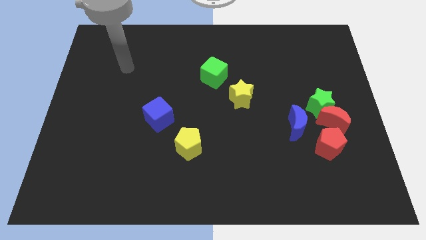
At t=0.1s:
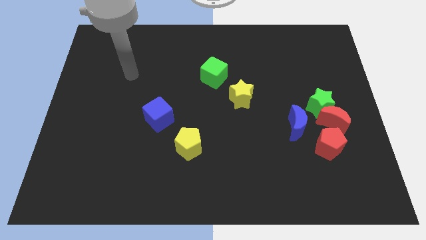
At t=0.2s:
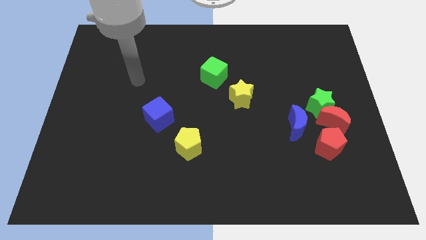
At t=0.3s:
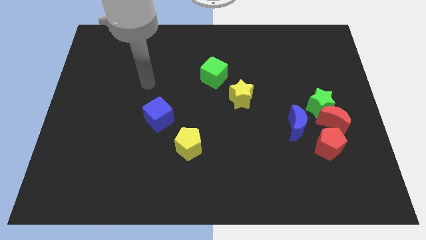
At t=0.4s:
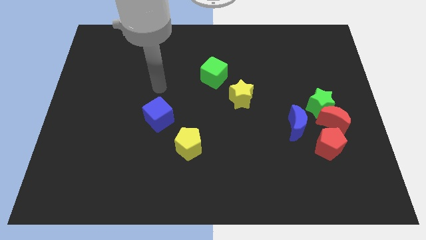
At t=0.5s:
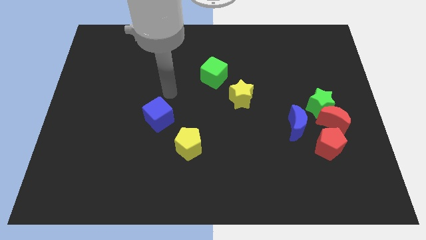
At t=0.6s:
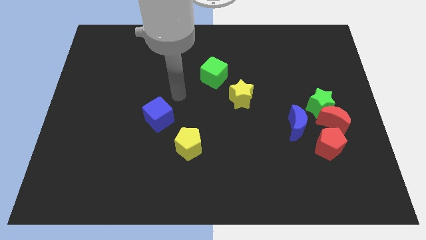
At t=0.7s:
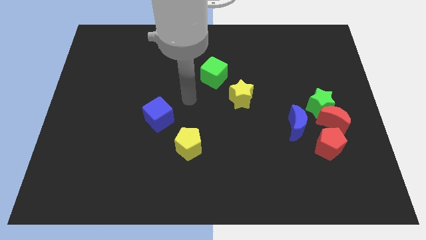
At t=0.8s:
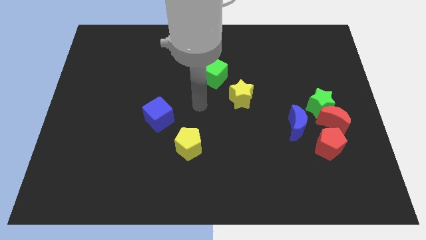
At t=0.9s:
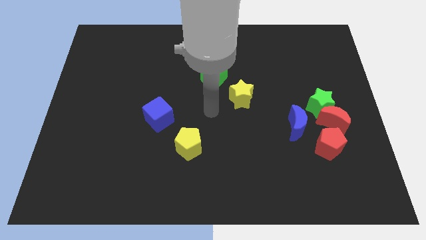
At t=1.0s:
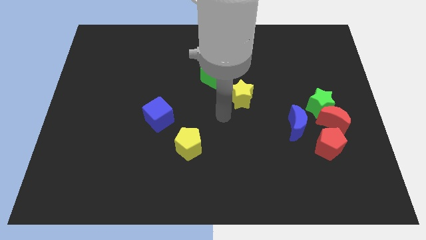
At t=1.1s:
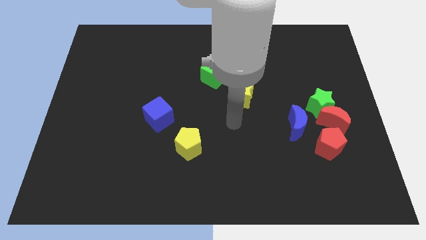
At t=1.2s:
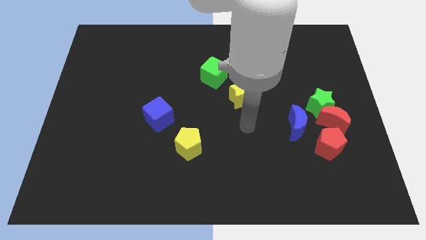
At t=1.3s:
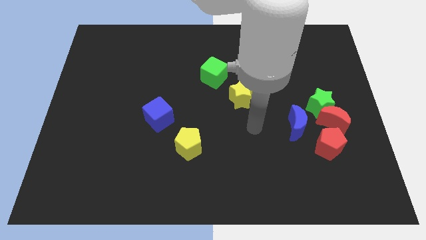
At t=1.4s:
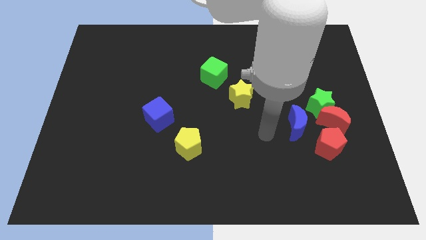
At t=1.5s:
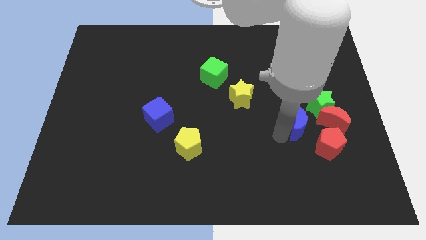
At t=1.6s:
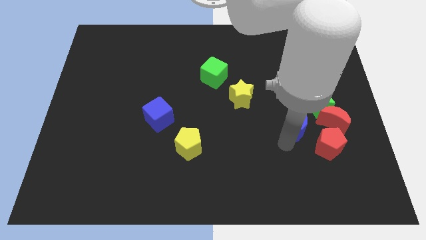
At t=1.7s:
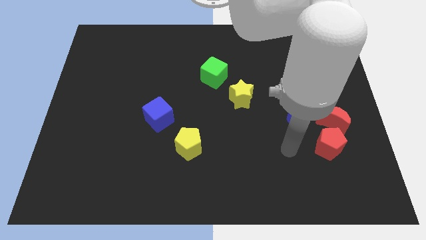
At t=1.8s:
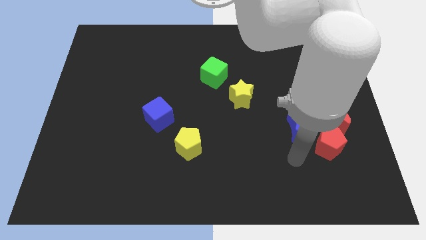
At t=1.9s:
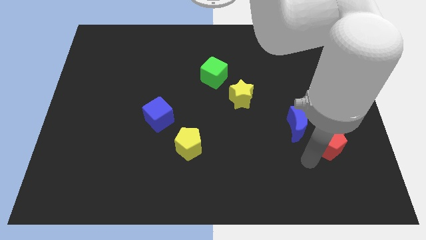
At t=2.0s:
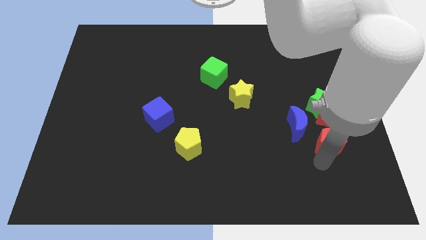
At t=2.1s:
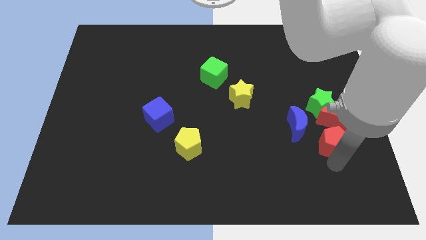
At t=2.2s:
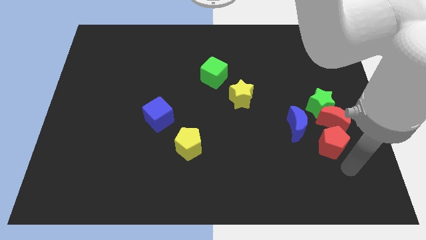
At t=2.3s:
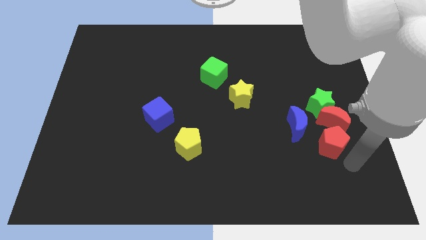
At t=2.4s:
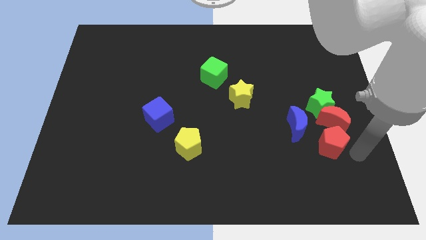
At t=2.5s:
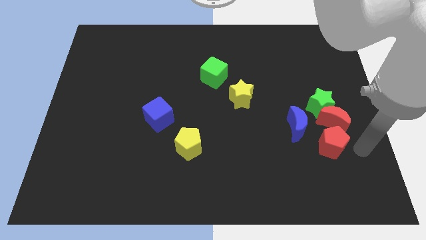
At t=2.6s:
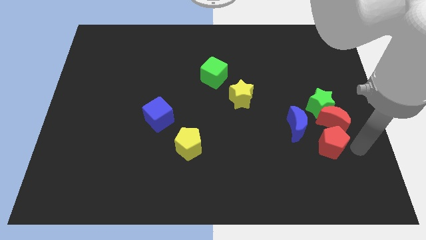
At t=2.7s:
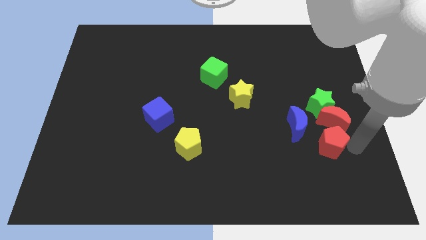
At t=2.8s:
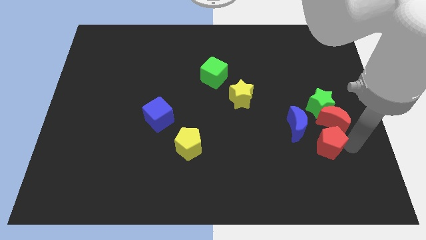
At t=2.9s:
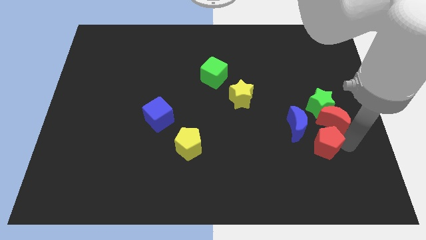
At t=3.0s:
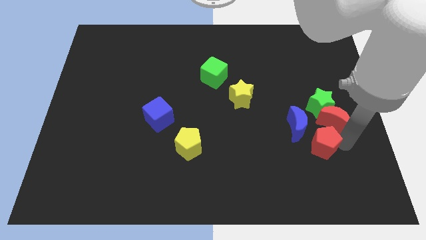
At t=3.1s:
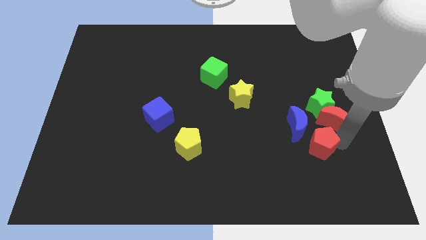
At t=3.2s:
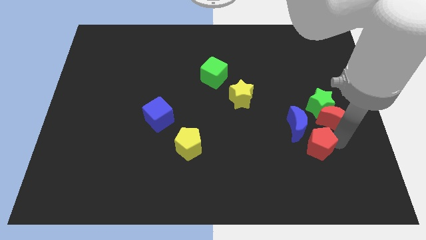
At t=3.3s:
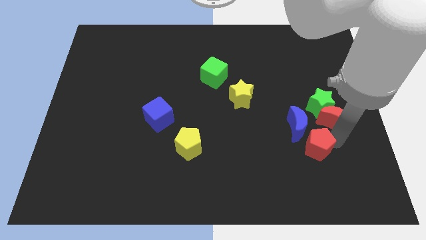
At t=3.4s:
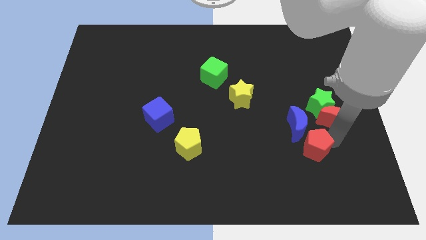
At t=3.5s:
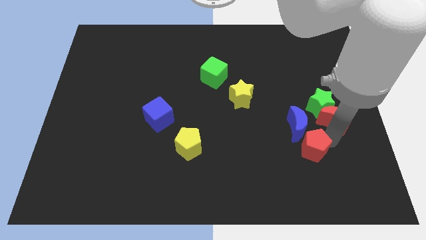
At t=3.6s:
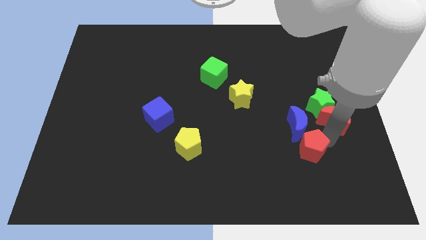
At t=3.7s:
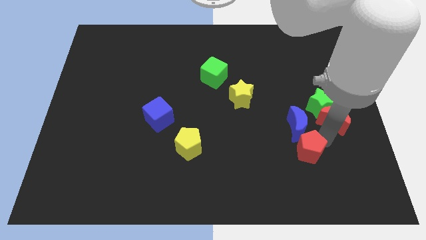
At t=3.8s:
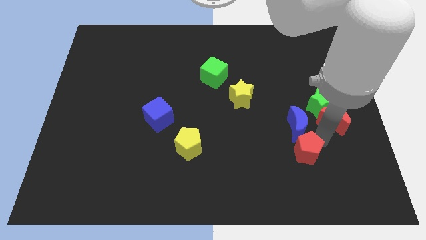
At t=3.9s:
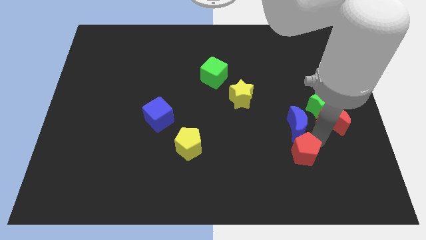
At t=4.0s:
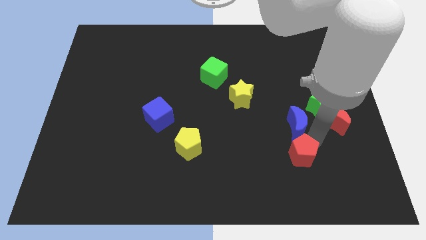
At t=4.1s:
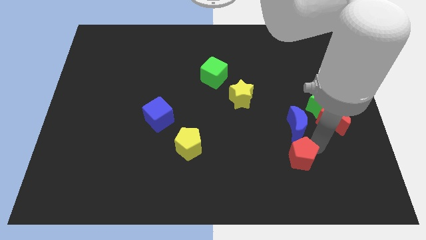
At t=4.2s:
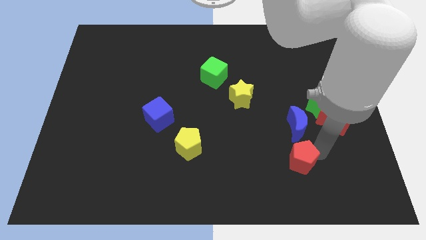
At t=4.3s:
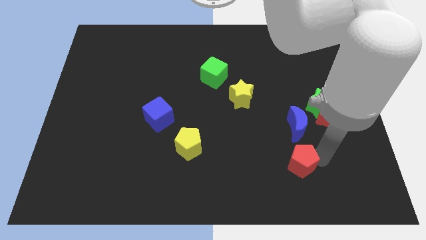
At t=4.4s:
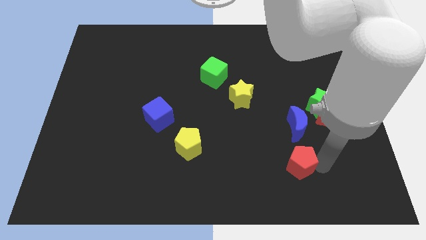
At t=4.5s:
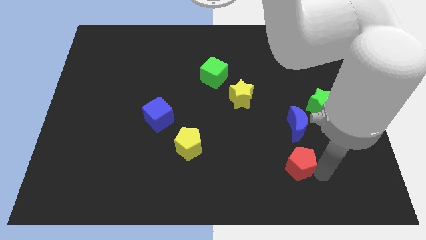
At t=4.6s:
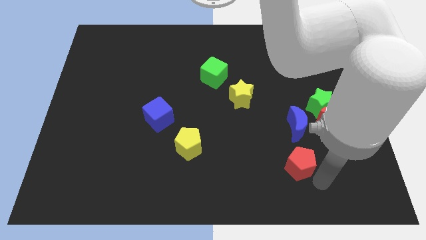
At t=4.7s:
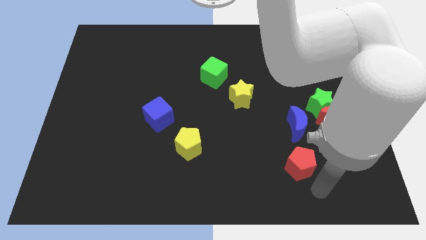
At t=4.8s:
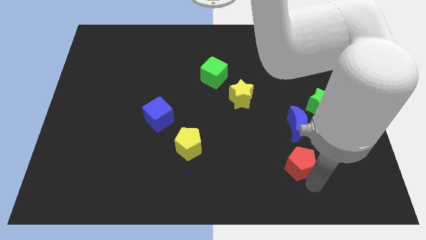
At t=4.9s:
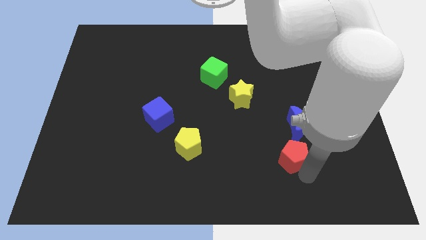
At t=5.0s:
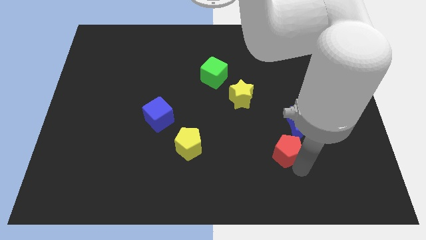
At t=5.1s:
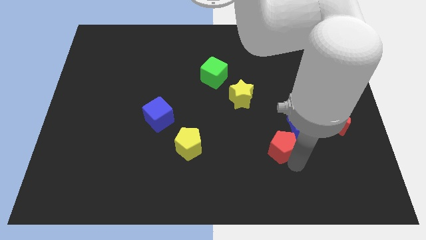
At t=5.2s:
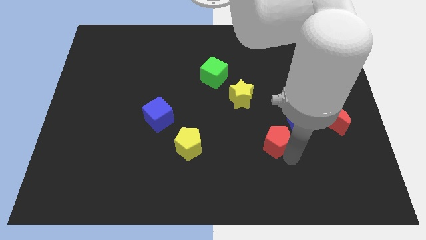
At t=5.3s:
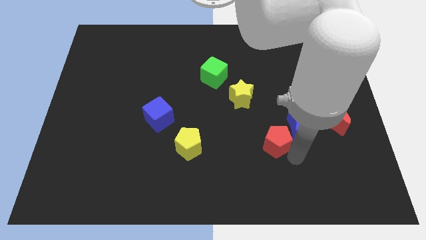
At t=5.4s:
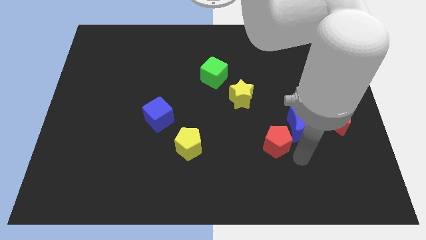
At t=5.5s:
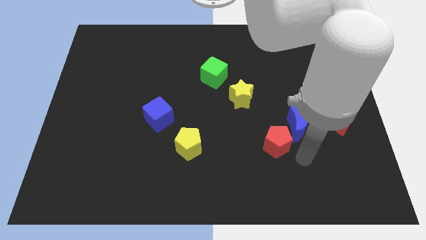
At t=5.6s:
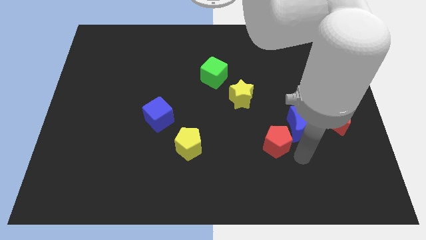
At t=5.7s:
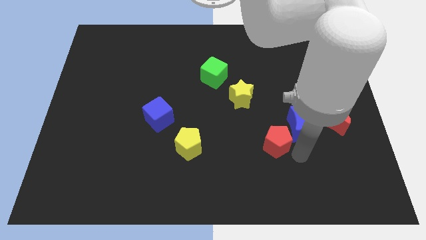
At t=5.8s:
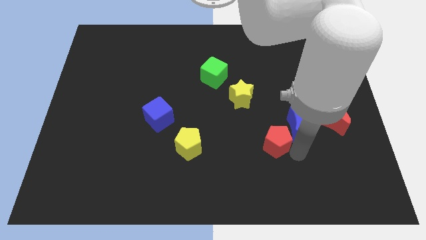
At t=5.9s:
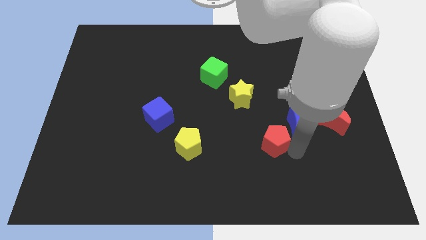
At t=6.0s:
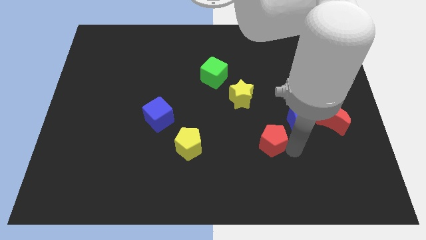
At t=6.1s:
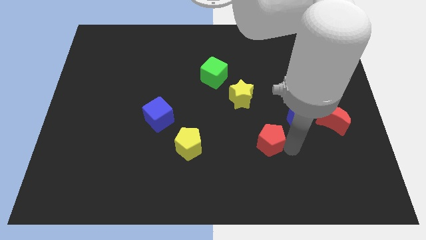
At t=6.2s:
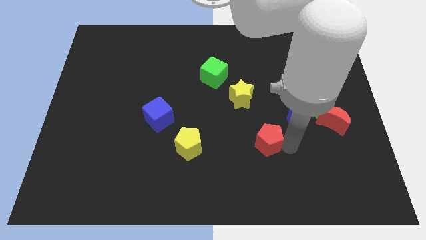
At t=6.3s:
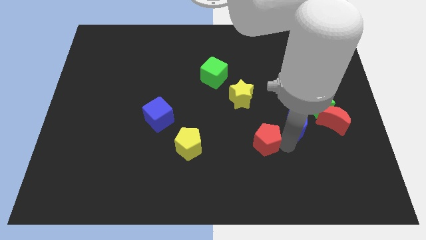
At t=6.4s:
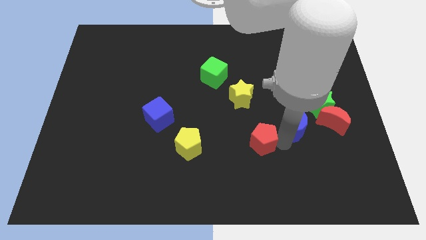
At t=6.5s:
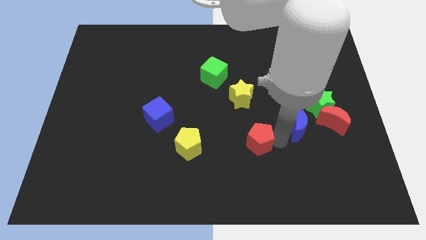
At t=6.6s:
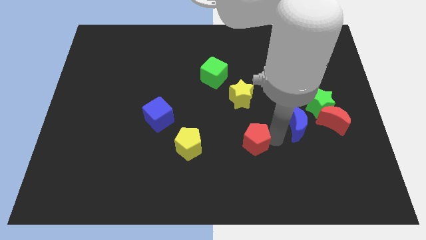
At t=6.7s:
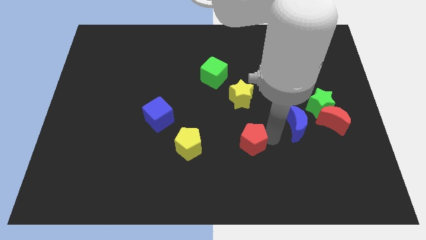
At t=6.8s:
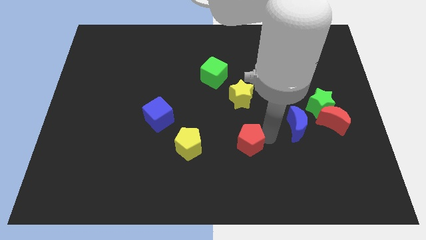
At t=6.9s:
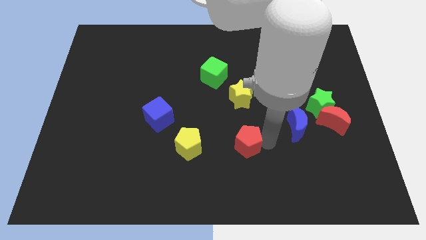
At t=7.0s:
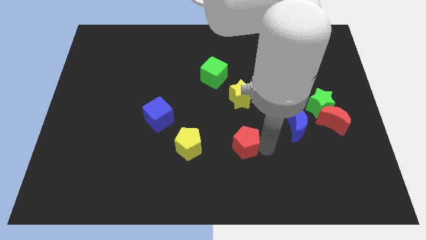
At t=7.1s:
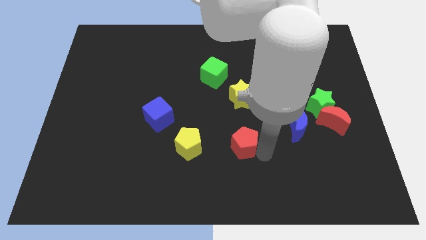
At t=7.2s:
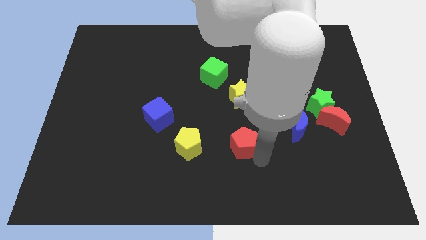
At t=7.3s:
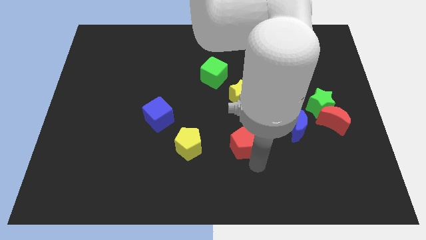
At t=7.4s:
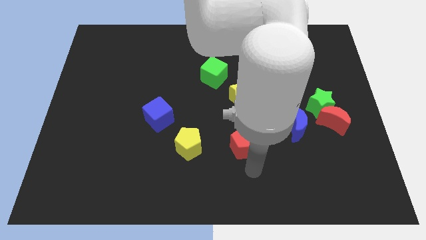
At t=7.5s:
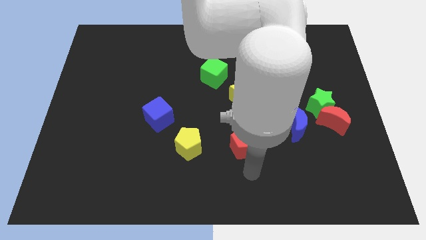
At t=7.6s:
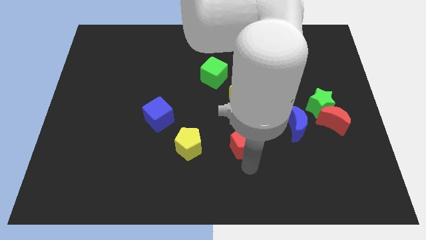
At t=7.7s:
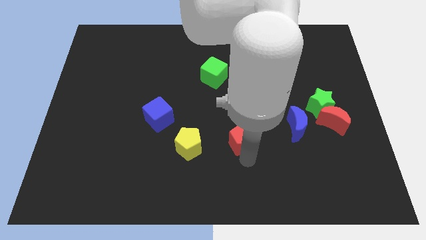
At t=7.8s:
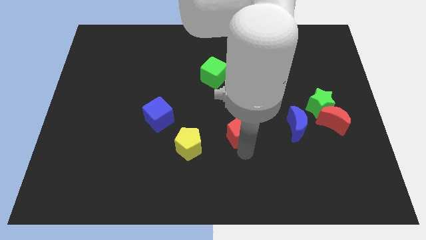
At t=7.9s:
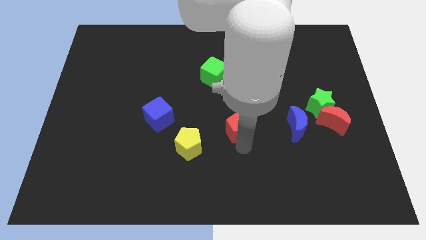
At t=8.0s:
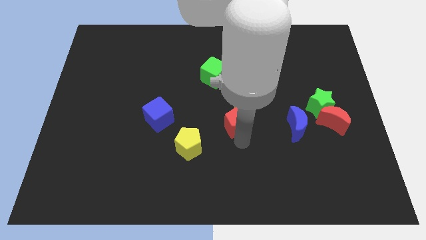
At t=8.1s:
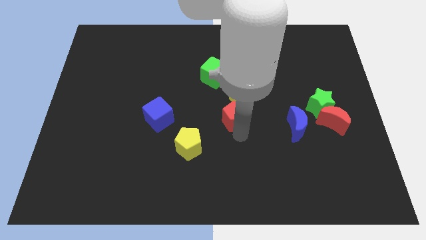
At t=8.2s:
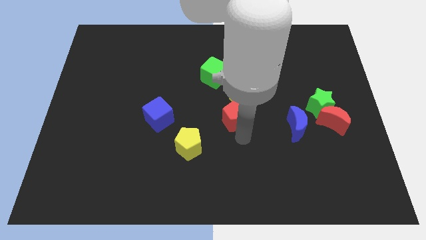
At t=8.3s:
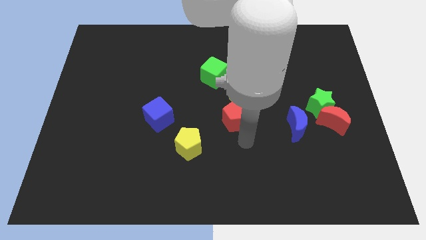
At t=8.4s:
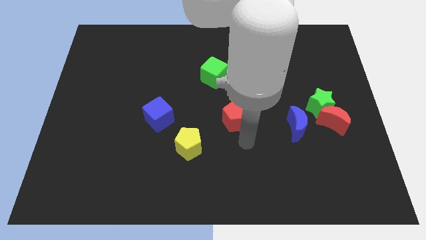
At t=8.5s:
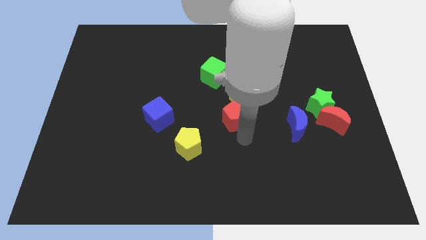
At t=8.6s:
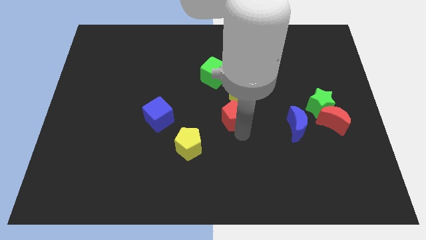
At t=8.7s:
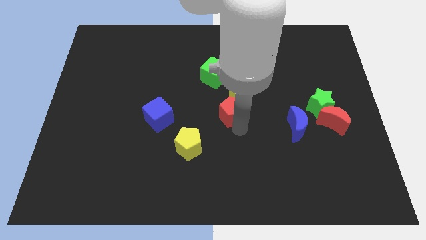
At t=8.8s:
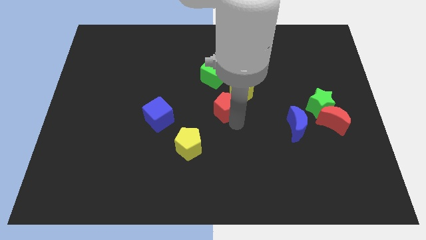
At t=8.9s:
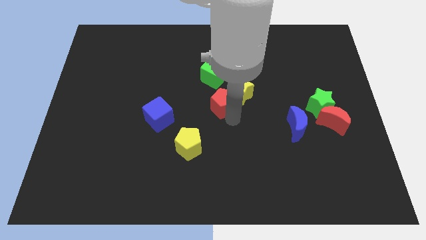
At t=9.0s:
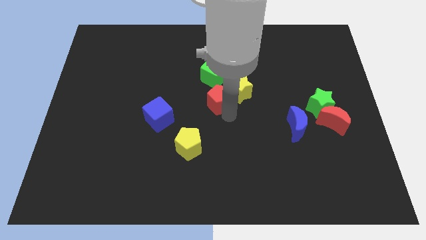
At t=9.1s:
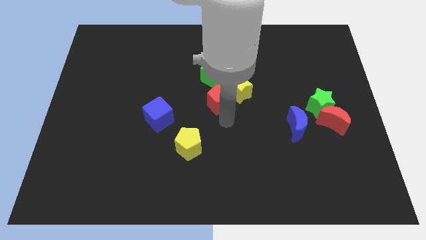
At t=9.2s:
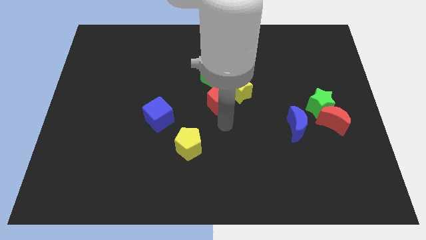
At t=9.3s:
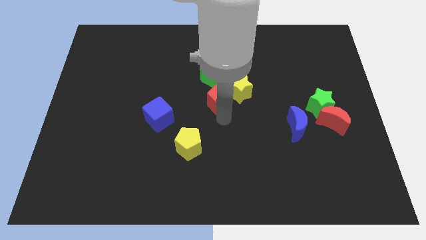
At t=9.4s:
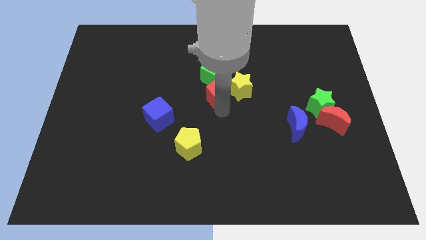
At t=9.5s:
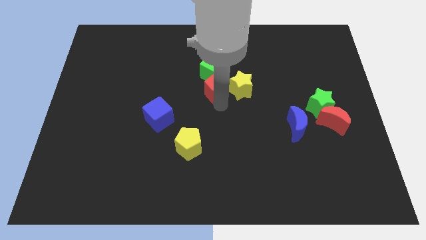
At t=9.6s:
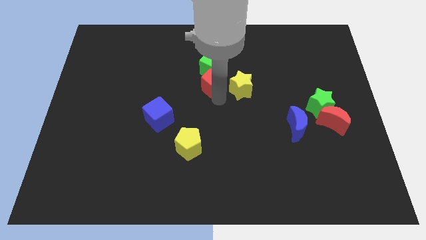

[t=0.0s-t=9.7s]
push the red pentagon close to the green cube
